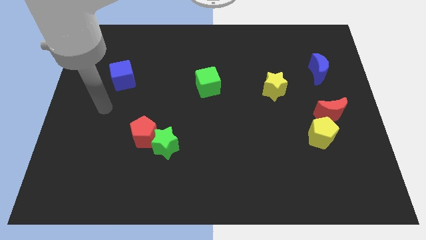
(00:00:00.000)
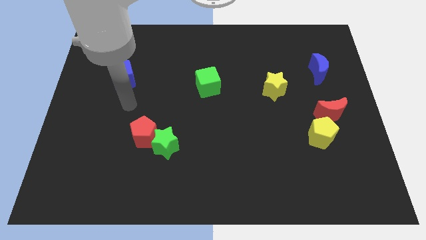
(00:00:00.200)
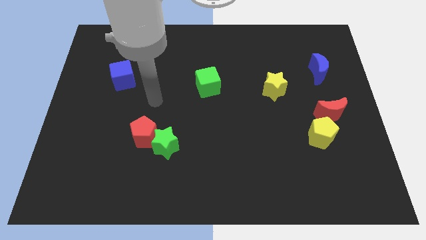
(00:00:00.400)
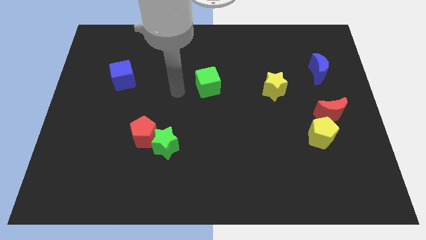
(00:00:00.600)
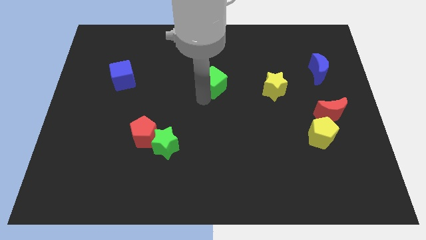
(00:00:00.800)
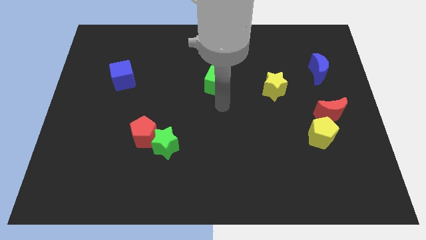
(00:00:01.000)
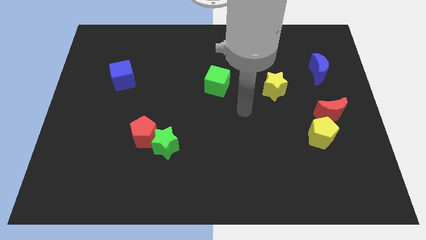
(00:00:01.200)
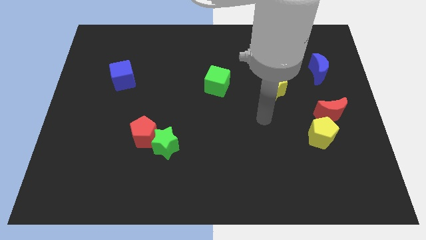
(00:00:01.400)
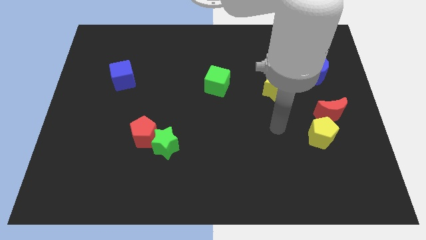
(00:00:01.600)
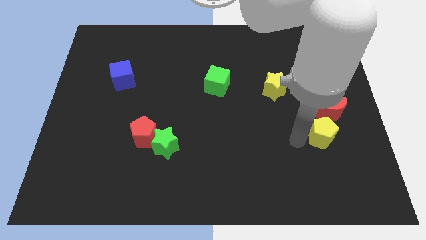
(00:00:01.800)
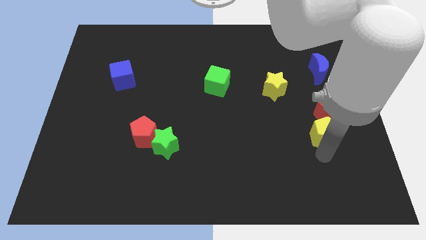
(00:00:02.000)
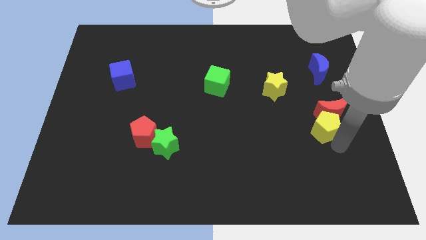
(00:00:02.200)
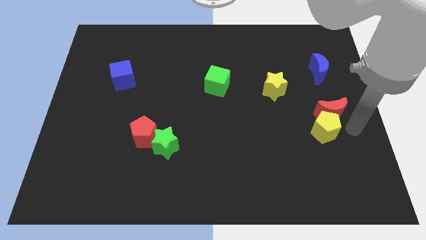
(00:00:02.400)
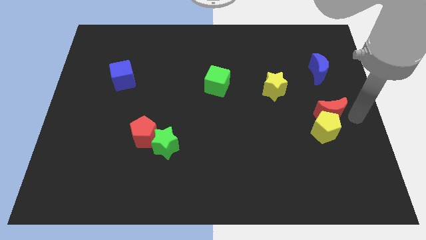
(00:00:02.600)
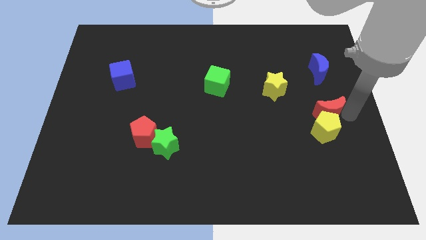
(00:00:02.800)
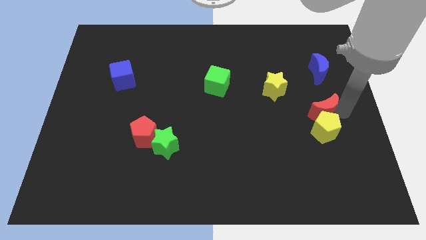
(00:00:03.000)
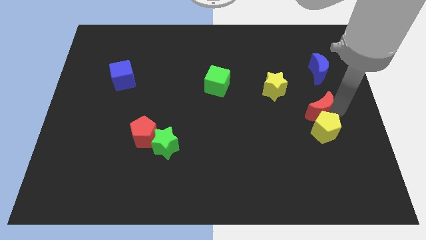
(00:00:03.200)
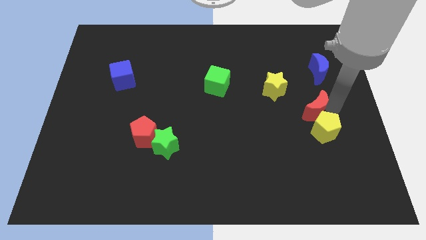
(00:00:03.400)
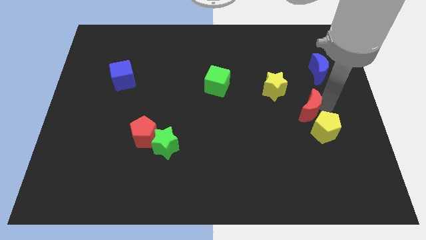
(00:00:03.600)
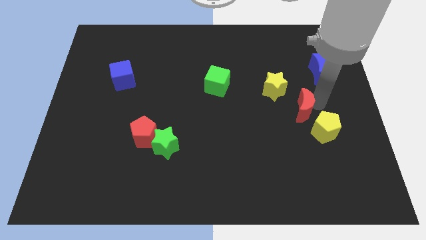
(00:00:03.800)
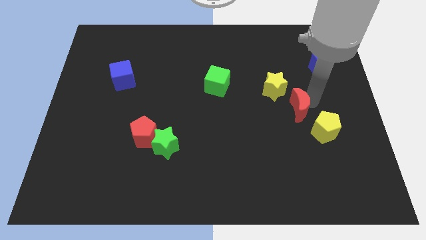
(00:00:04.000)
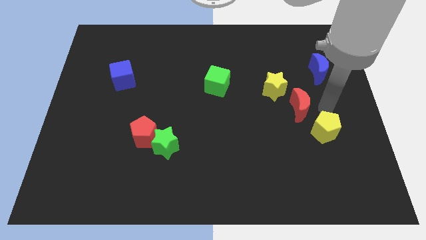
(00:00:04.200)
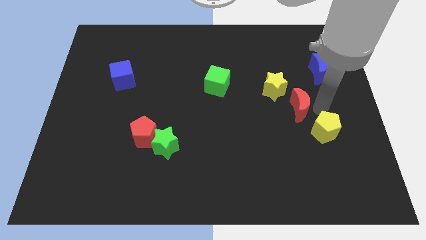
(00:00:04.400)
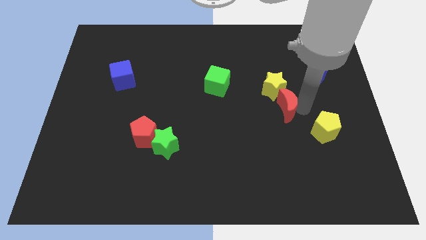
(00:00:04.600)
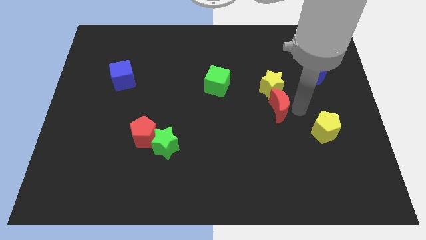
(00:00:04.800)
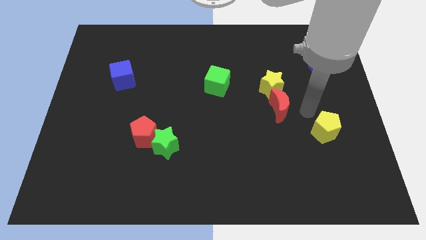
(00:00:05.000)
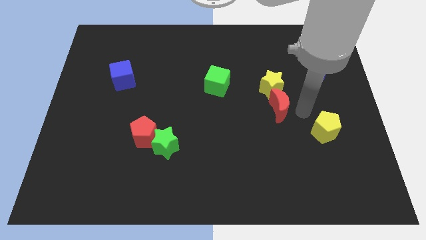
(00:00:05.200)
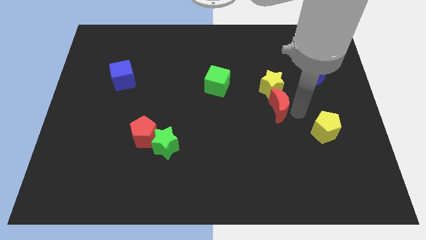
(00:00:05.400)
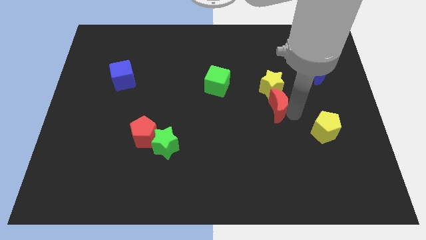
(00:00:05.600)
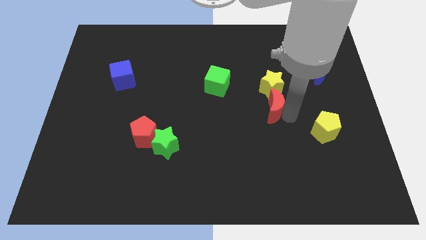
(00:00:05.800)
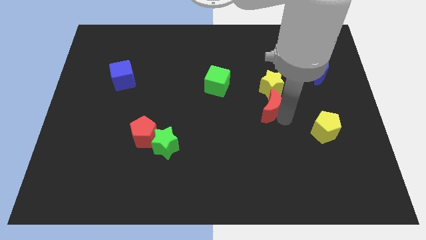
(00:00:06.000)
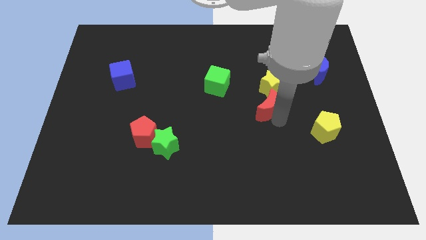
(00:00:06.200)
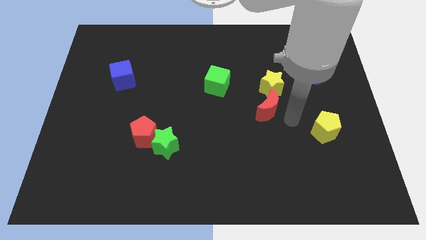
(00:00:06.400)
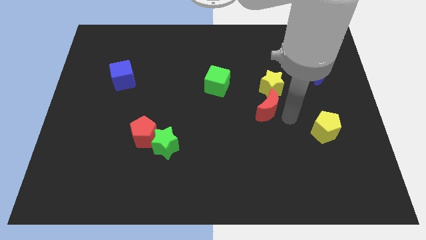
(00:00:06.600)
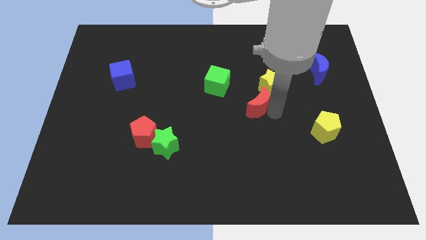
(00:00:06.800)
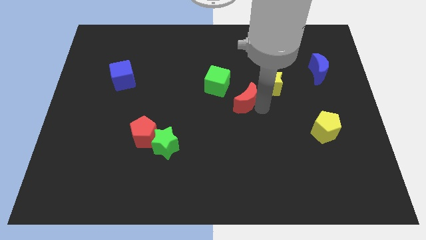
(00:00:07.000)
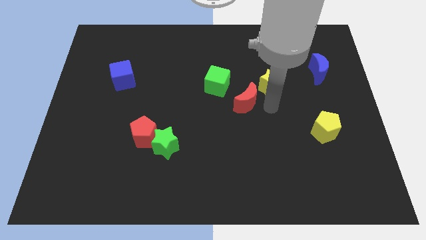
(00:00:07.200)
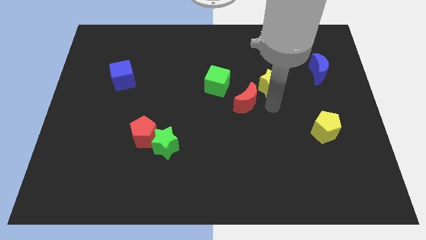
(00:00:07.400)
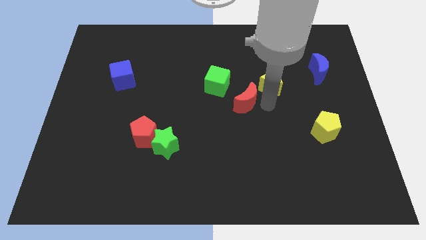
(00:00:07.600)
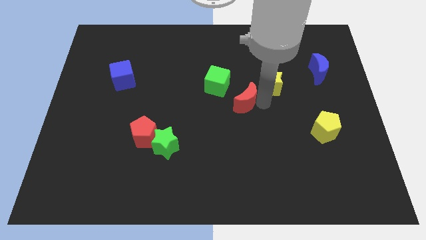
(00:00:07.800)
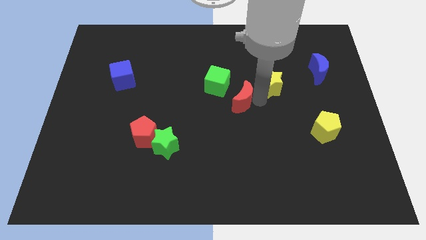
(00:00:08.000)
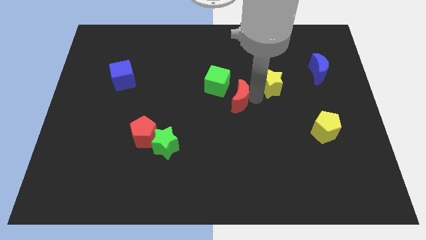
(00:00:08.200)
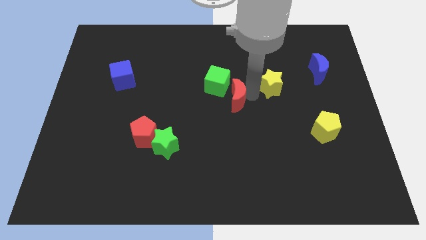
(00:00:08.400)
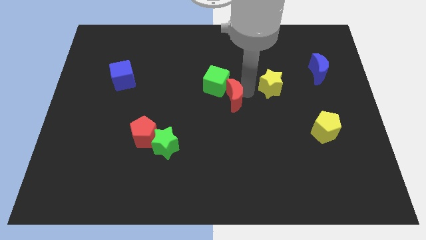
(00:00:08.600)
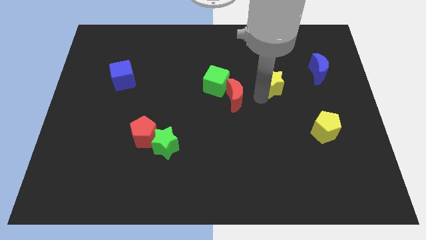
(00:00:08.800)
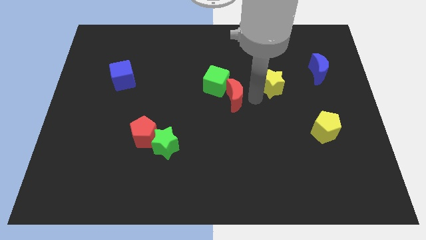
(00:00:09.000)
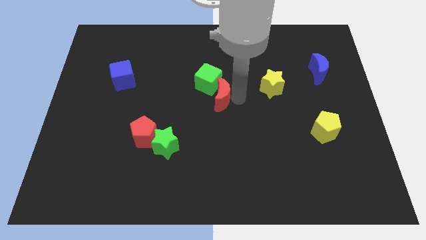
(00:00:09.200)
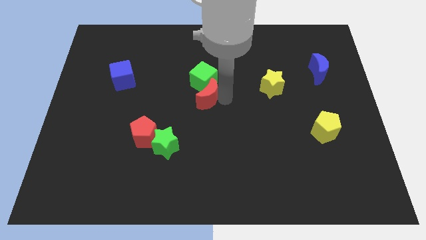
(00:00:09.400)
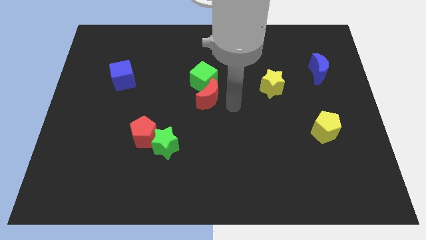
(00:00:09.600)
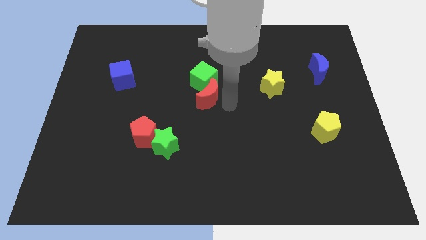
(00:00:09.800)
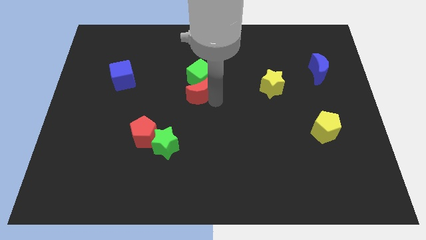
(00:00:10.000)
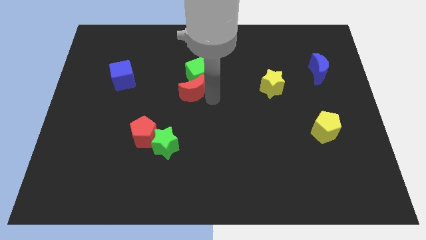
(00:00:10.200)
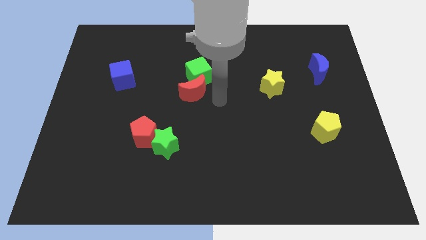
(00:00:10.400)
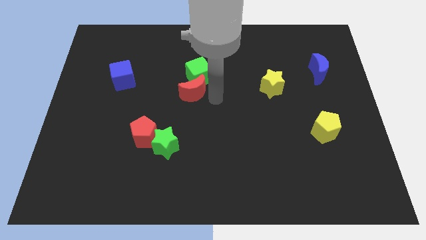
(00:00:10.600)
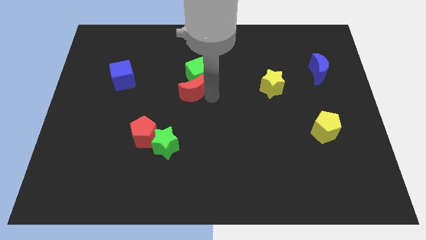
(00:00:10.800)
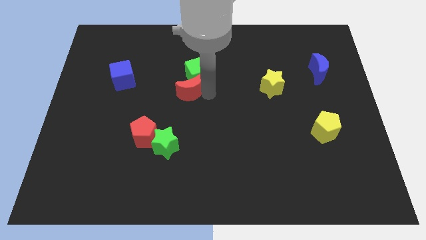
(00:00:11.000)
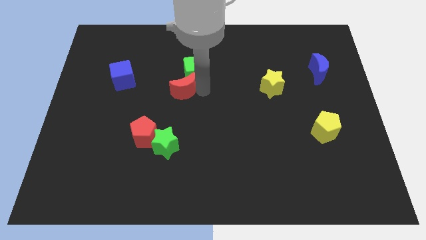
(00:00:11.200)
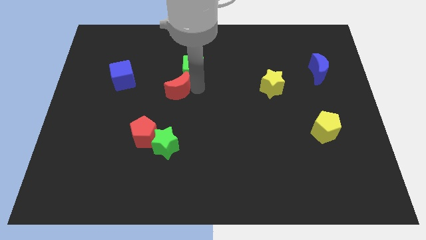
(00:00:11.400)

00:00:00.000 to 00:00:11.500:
slide the red moon to the right side of the blue cube

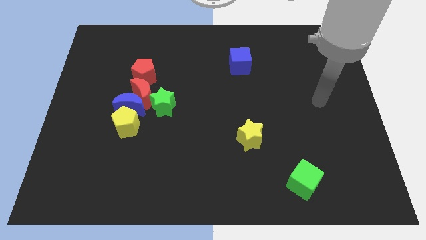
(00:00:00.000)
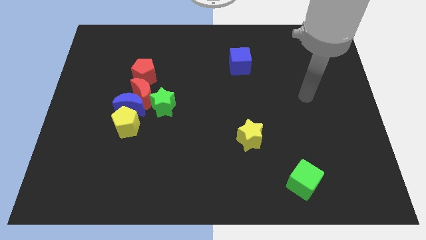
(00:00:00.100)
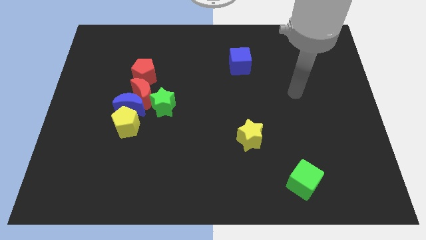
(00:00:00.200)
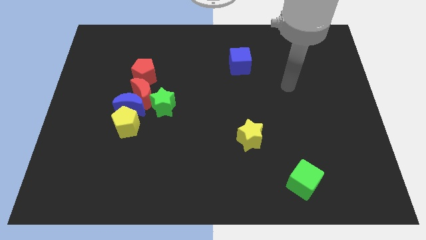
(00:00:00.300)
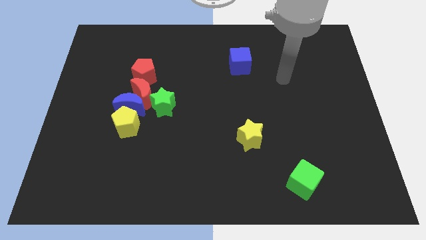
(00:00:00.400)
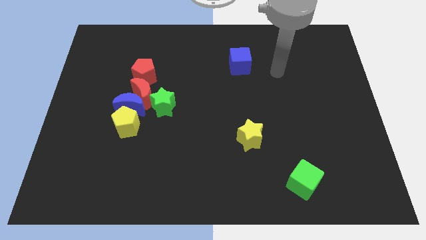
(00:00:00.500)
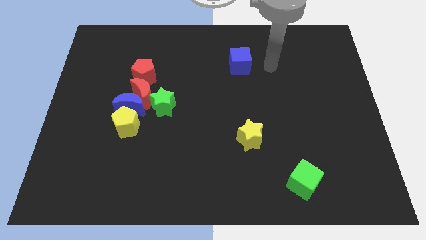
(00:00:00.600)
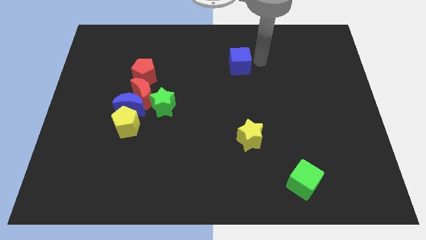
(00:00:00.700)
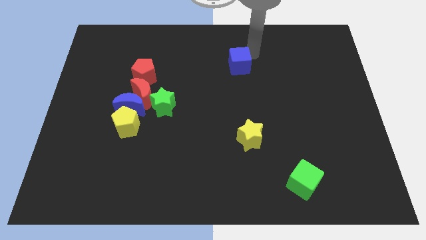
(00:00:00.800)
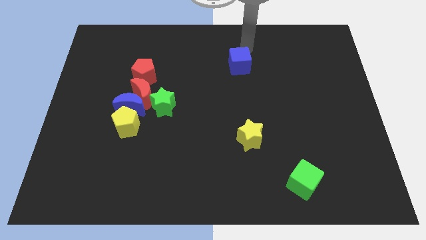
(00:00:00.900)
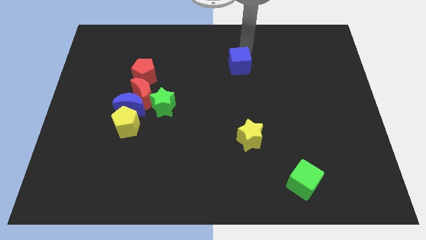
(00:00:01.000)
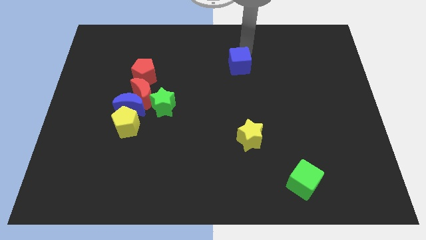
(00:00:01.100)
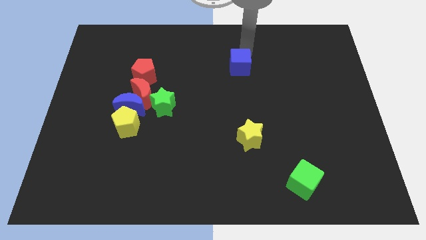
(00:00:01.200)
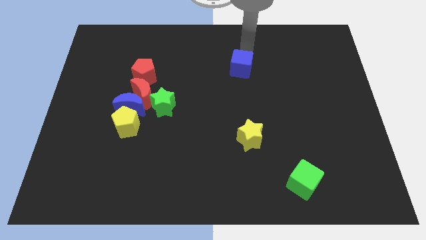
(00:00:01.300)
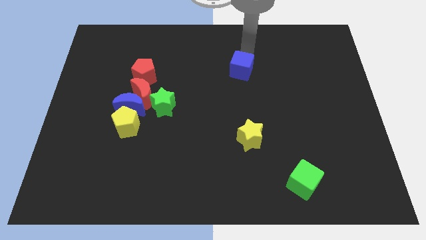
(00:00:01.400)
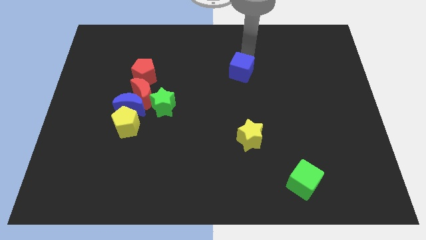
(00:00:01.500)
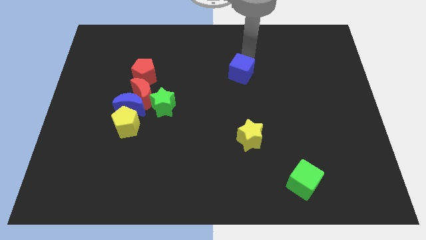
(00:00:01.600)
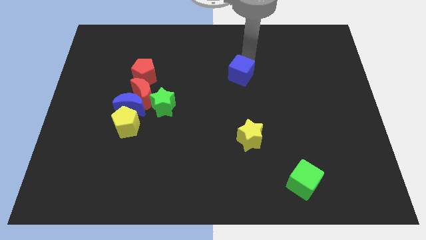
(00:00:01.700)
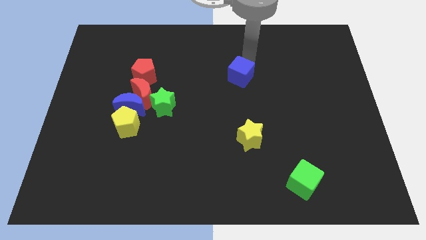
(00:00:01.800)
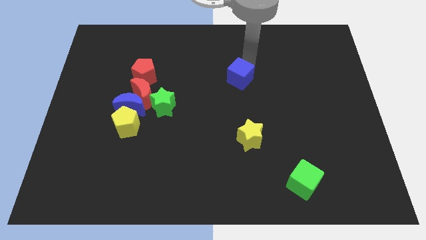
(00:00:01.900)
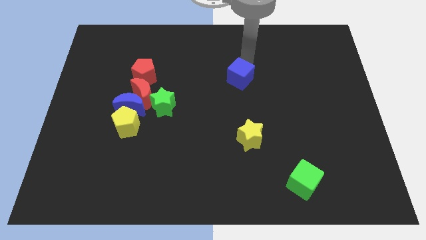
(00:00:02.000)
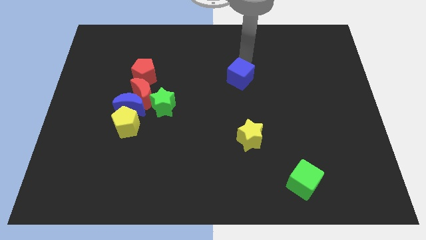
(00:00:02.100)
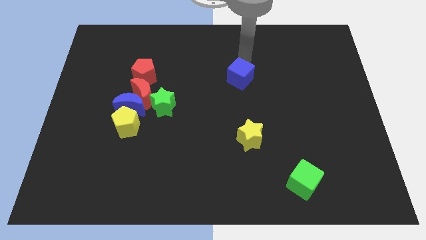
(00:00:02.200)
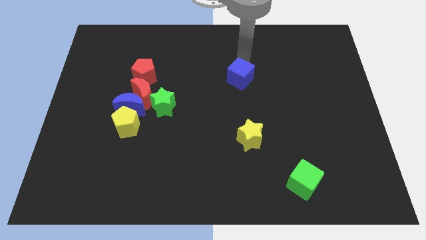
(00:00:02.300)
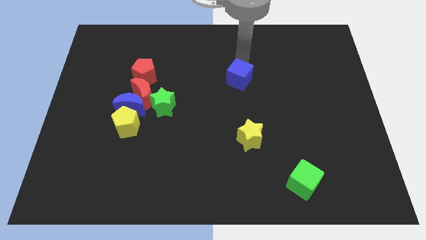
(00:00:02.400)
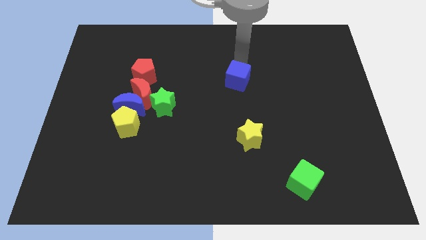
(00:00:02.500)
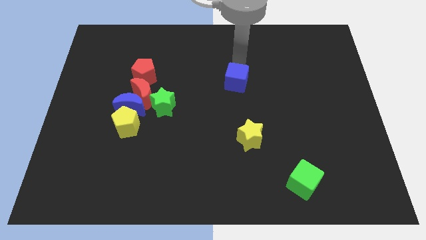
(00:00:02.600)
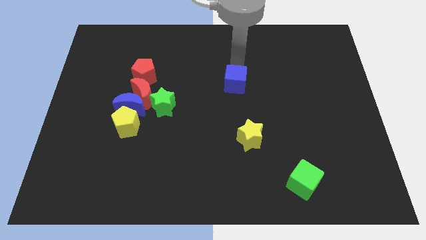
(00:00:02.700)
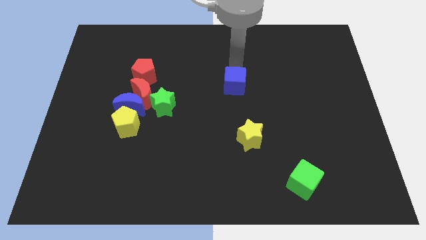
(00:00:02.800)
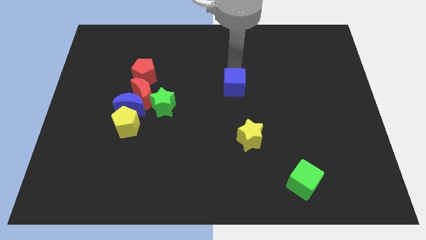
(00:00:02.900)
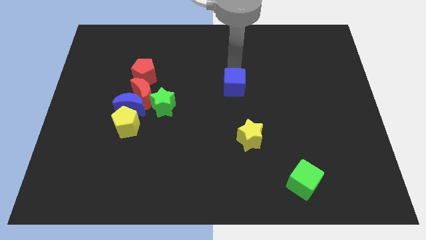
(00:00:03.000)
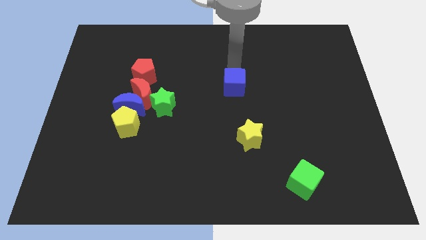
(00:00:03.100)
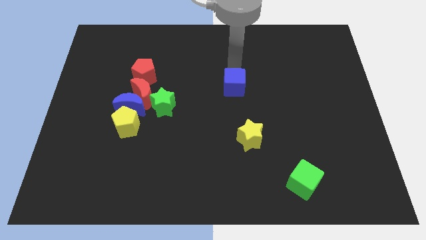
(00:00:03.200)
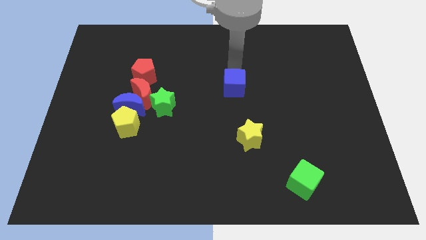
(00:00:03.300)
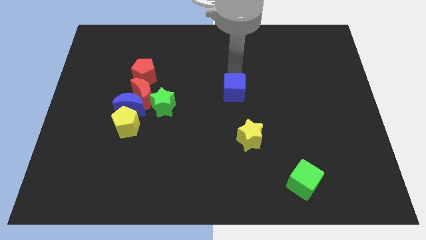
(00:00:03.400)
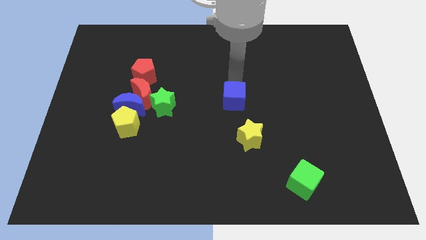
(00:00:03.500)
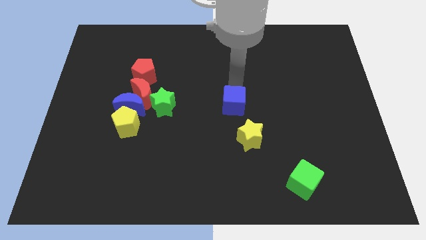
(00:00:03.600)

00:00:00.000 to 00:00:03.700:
push the blue cube to the top left side of the yellow star
